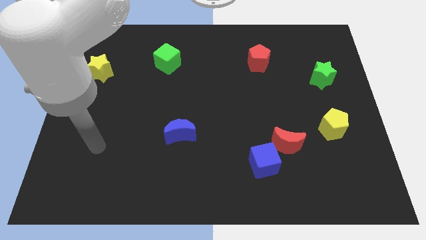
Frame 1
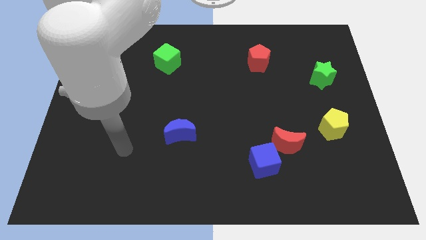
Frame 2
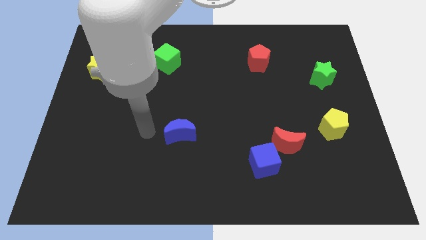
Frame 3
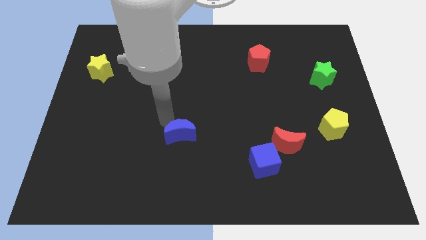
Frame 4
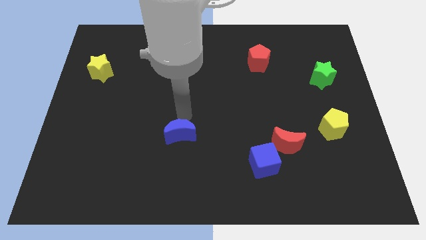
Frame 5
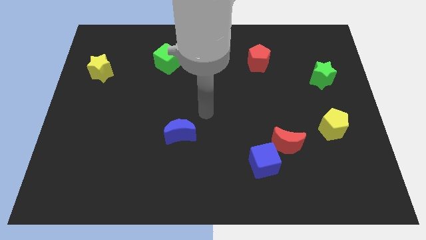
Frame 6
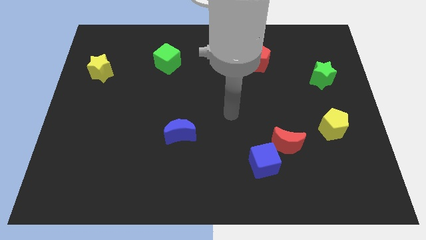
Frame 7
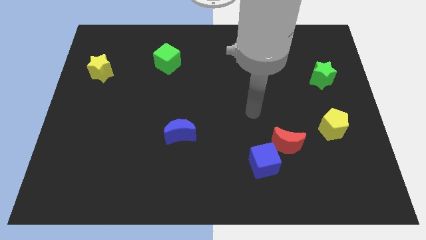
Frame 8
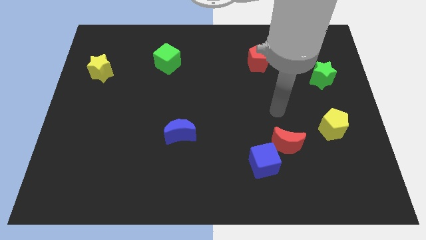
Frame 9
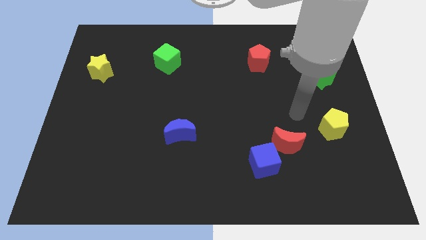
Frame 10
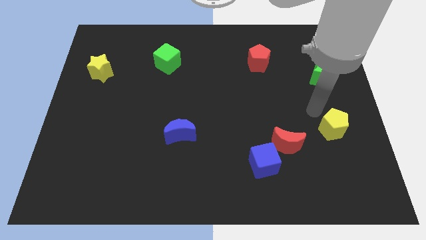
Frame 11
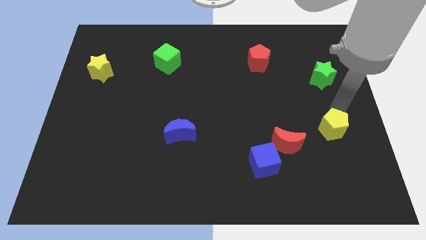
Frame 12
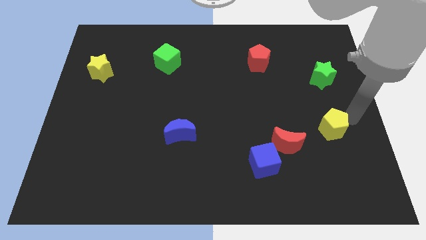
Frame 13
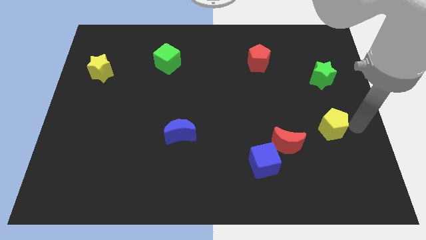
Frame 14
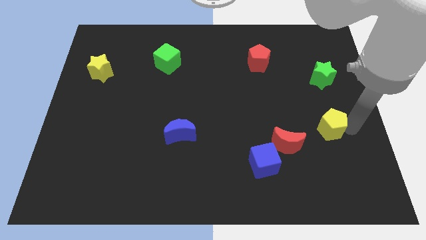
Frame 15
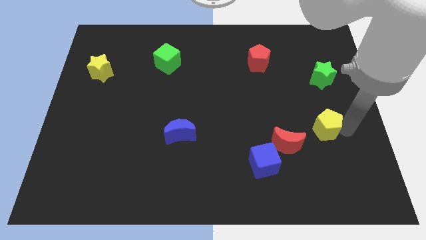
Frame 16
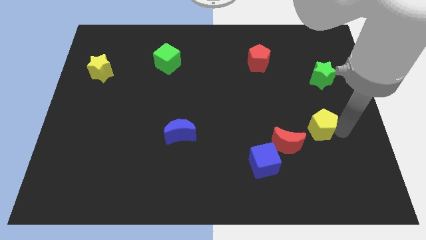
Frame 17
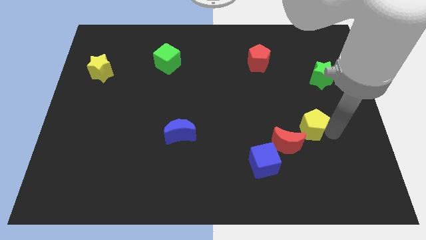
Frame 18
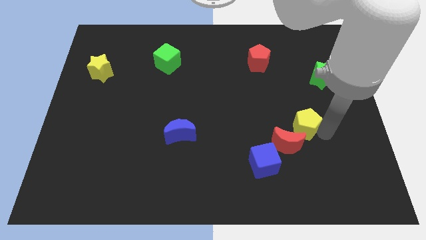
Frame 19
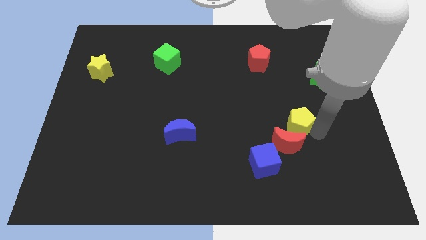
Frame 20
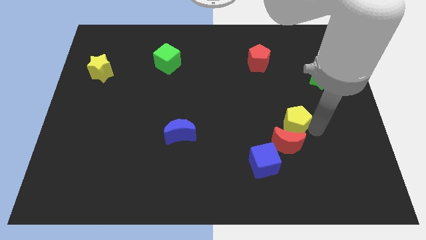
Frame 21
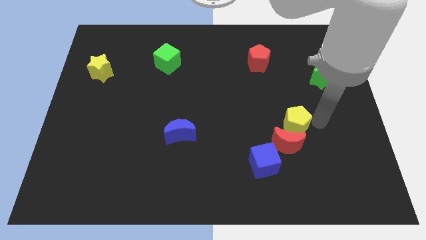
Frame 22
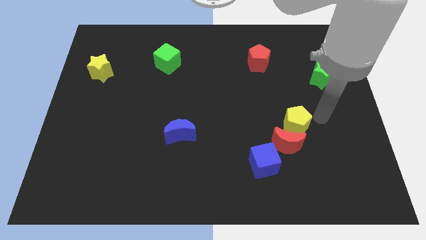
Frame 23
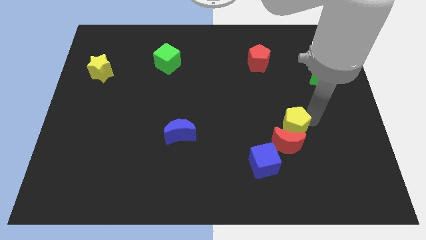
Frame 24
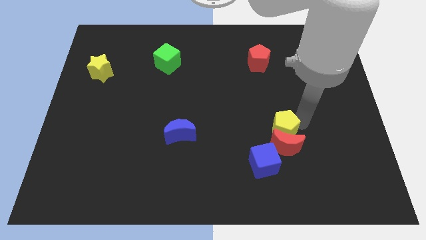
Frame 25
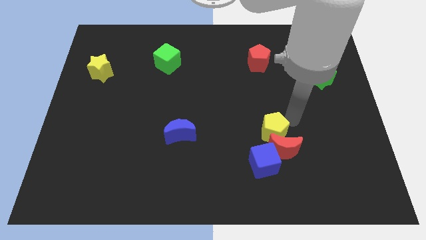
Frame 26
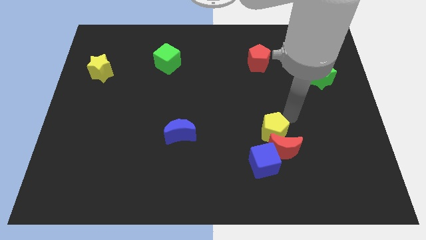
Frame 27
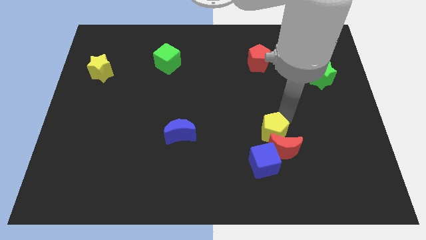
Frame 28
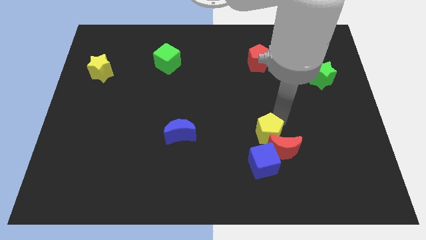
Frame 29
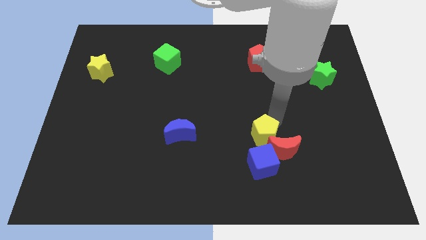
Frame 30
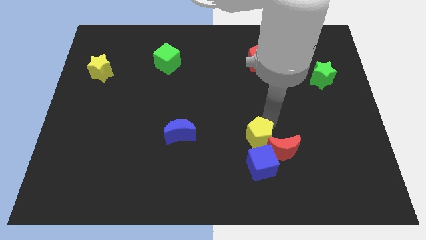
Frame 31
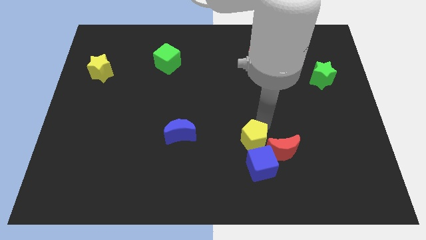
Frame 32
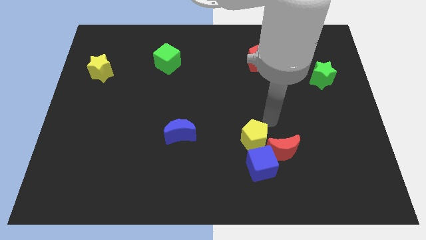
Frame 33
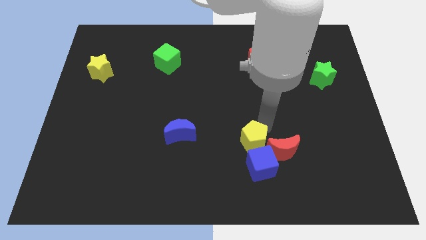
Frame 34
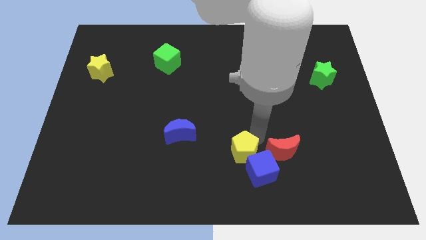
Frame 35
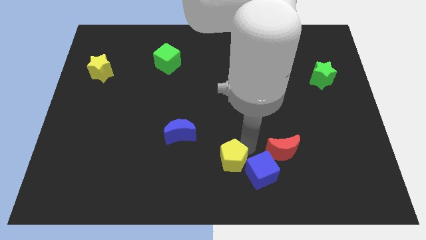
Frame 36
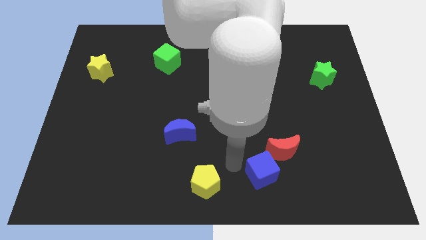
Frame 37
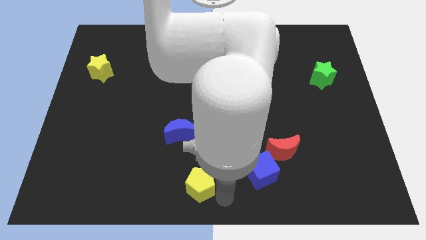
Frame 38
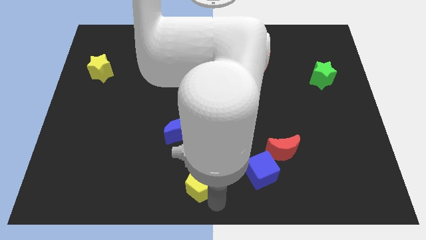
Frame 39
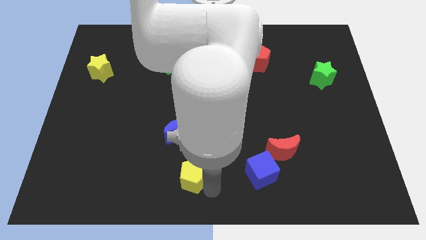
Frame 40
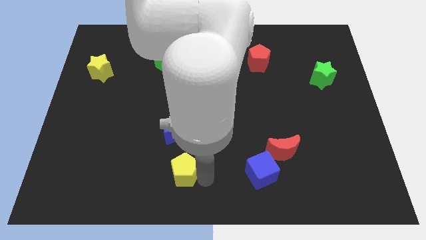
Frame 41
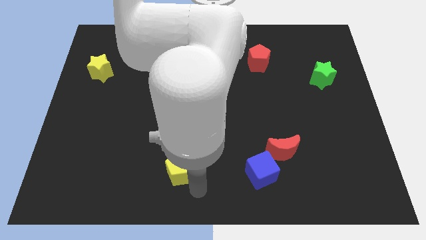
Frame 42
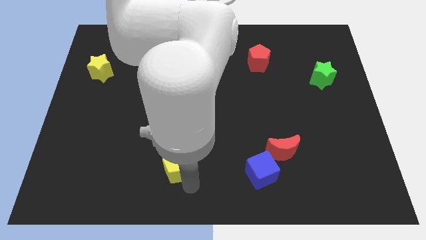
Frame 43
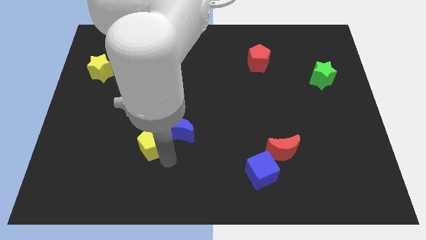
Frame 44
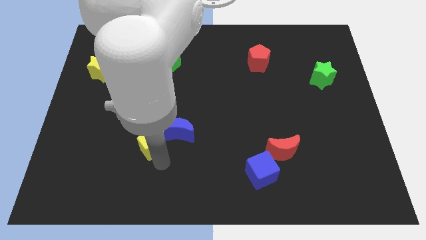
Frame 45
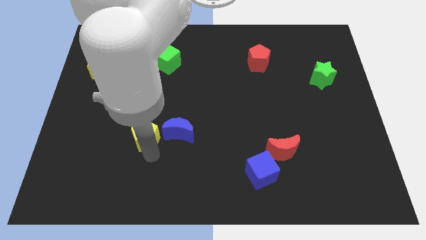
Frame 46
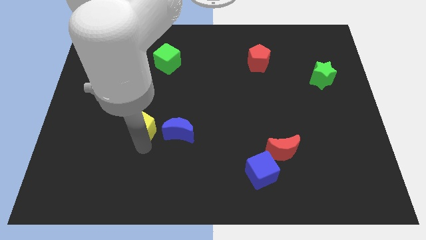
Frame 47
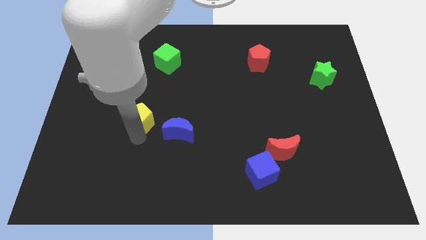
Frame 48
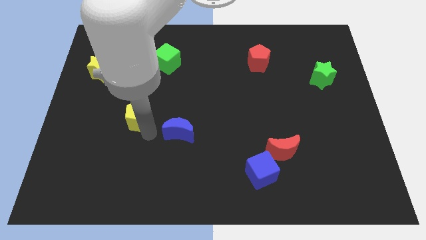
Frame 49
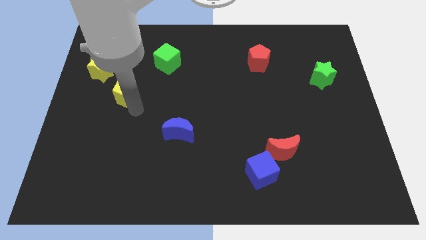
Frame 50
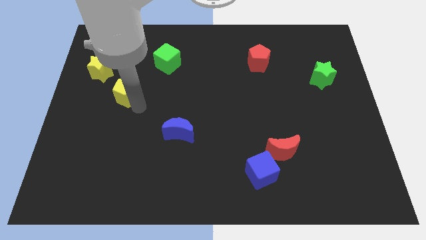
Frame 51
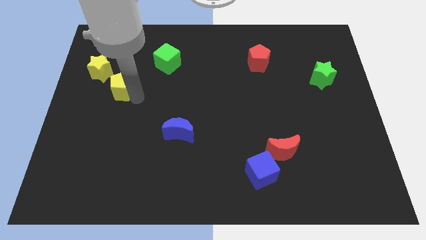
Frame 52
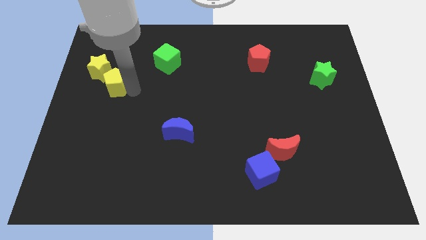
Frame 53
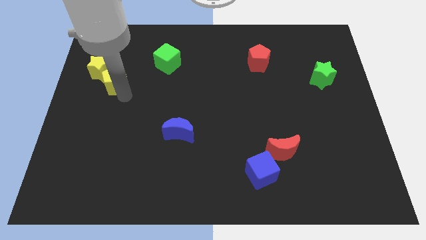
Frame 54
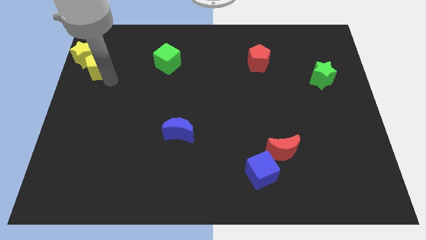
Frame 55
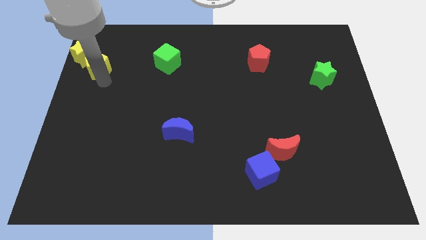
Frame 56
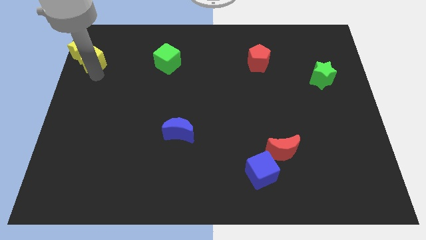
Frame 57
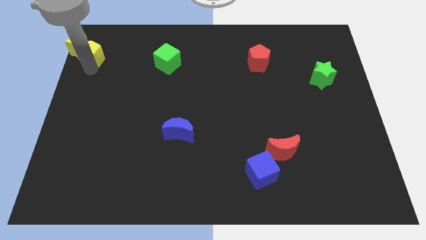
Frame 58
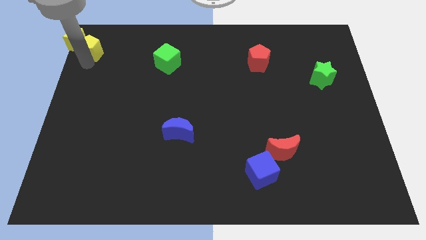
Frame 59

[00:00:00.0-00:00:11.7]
put the yellow pentagon to the top left
